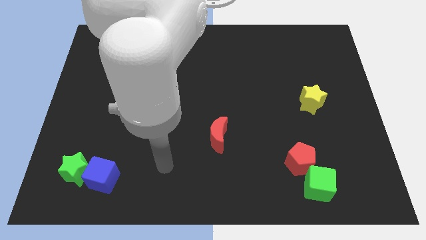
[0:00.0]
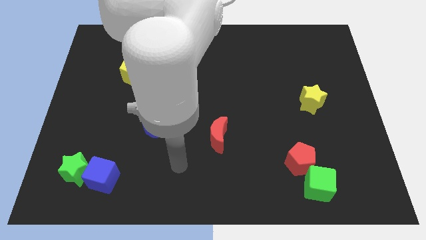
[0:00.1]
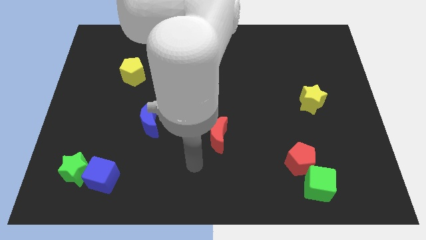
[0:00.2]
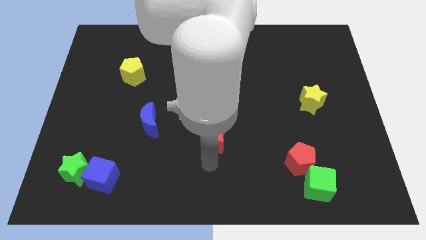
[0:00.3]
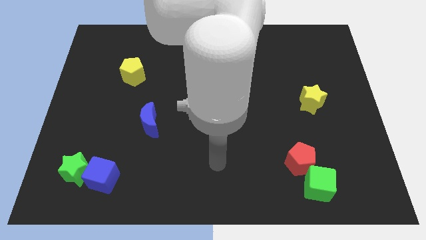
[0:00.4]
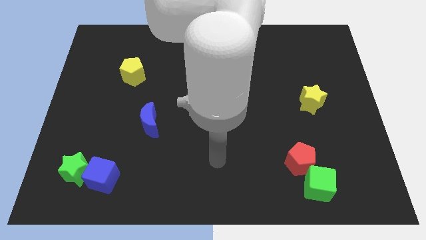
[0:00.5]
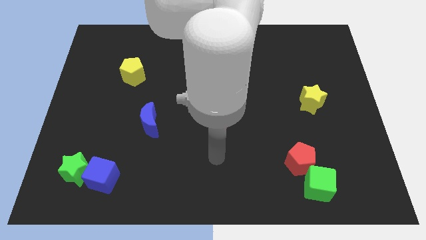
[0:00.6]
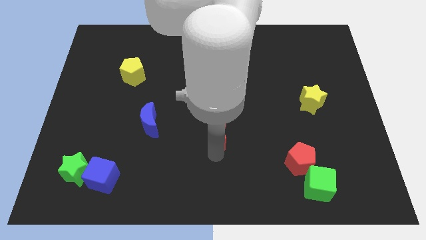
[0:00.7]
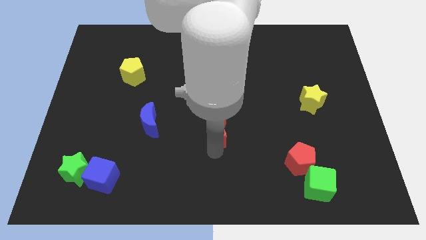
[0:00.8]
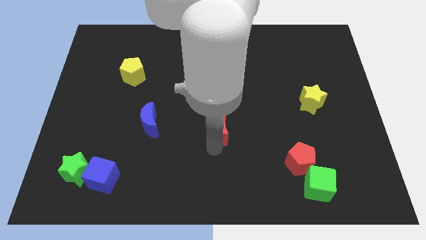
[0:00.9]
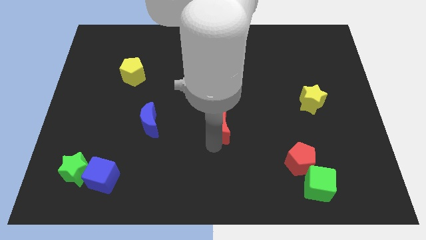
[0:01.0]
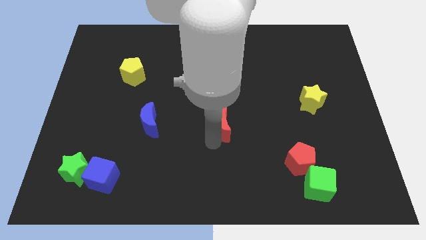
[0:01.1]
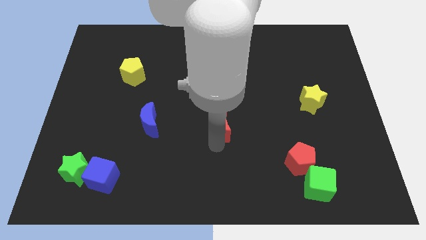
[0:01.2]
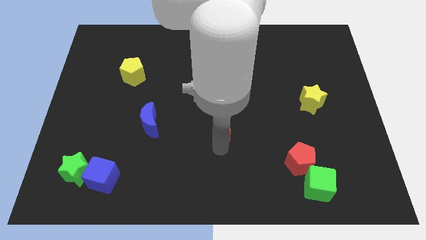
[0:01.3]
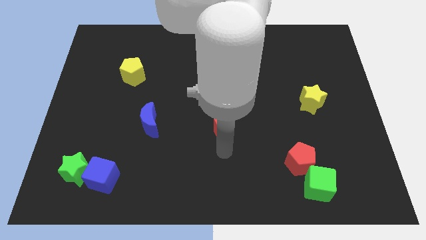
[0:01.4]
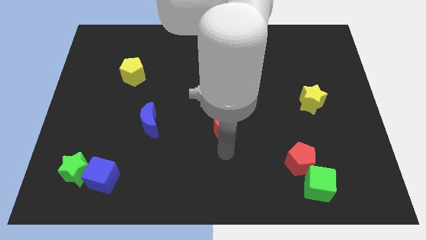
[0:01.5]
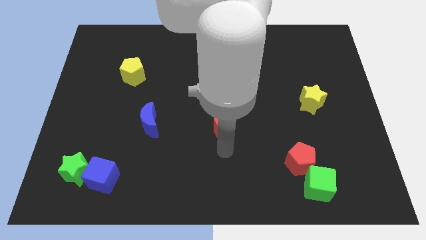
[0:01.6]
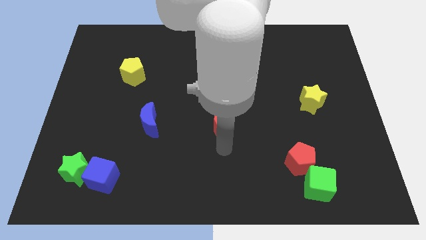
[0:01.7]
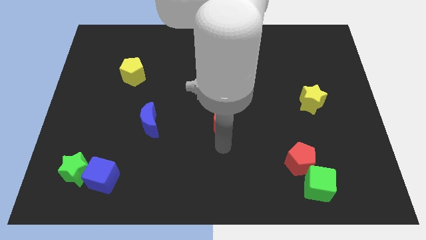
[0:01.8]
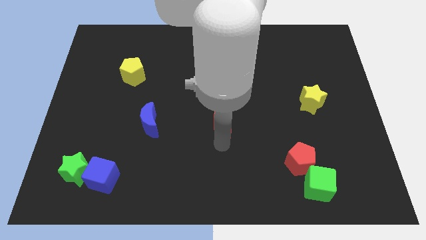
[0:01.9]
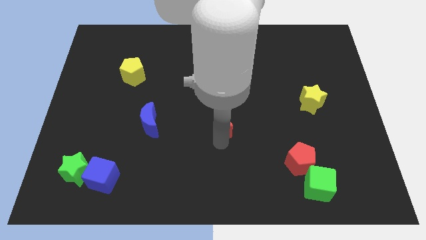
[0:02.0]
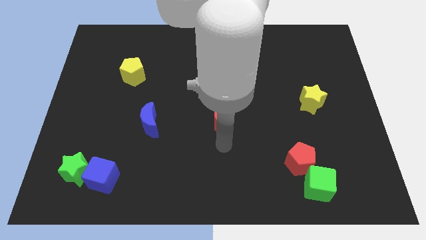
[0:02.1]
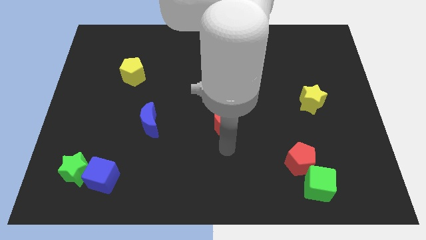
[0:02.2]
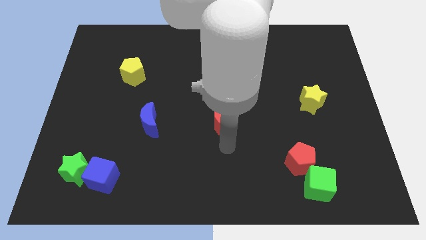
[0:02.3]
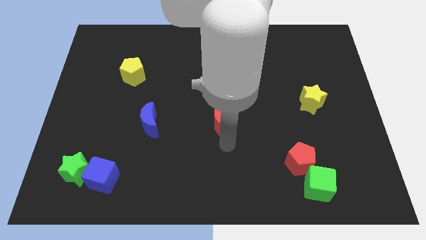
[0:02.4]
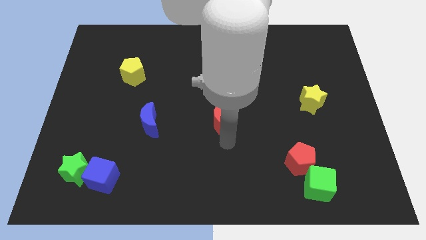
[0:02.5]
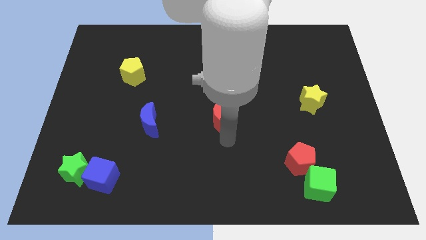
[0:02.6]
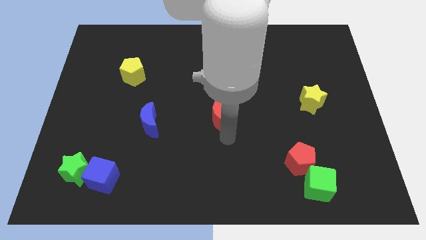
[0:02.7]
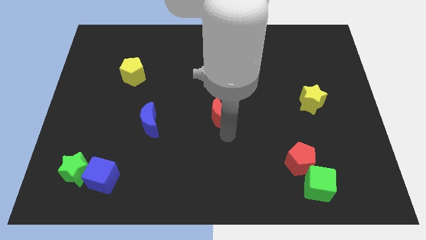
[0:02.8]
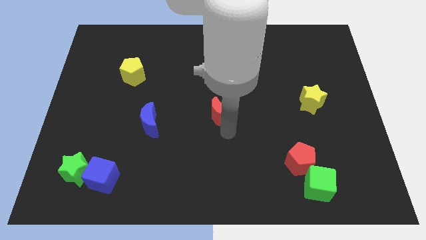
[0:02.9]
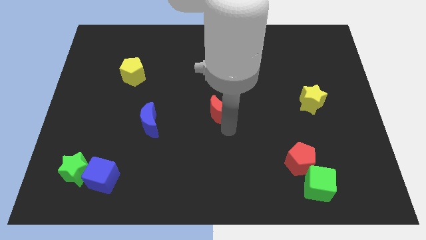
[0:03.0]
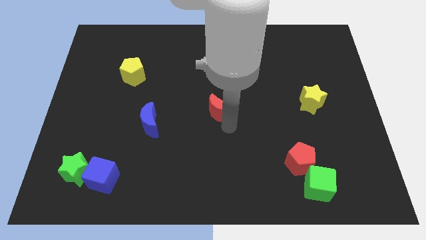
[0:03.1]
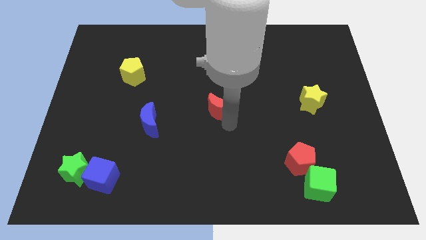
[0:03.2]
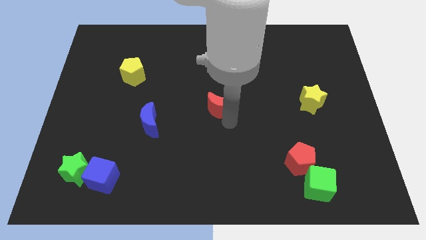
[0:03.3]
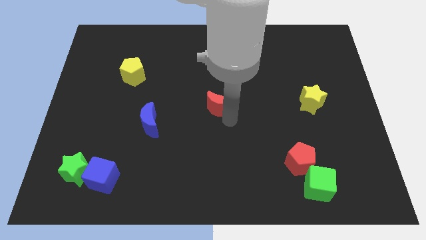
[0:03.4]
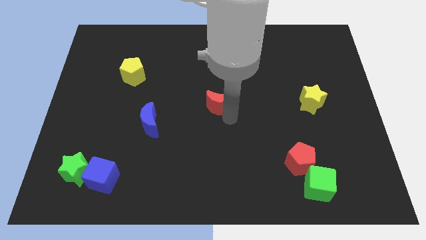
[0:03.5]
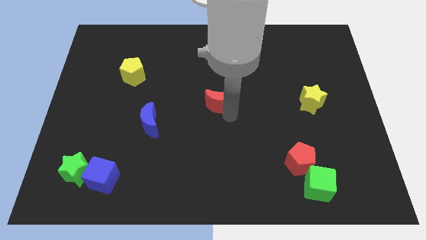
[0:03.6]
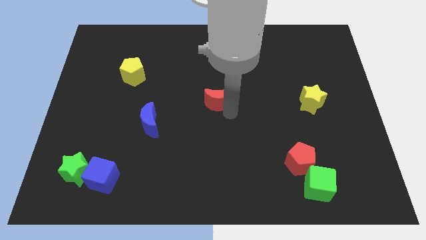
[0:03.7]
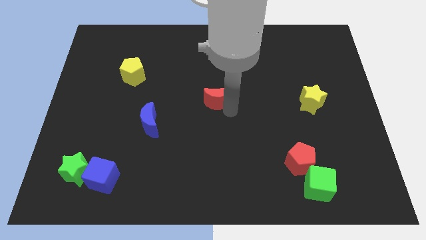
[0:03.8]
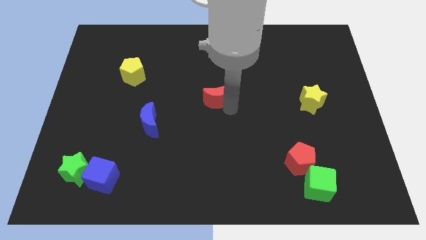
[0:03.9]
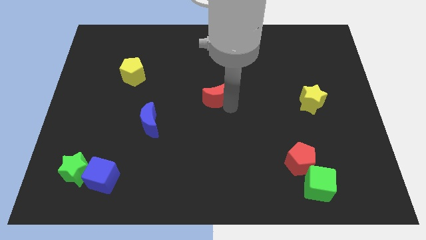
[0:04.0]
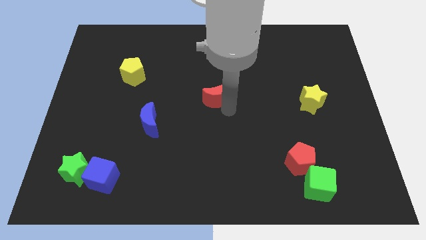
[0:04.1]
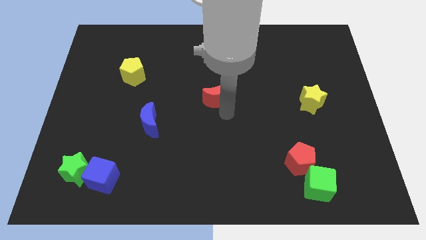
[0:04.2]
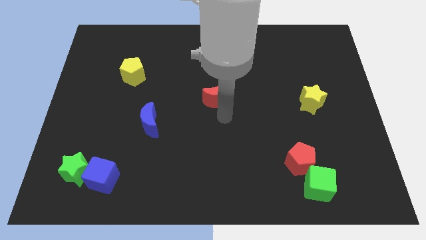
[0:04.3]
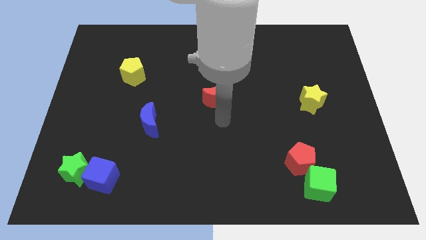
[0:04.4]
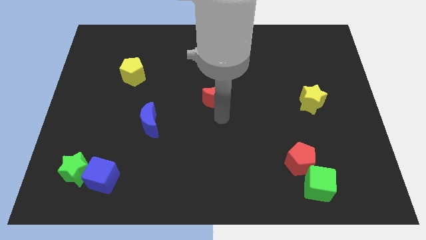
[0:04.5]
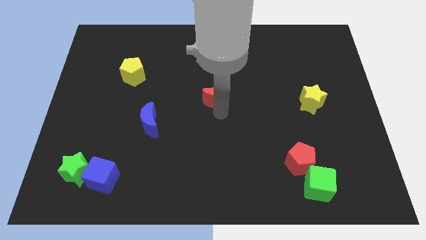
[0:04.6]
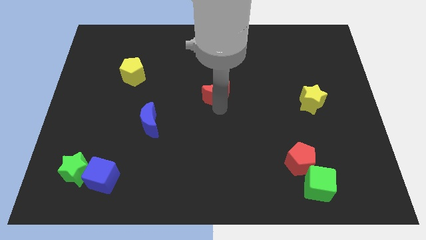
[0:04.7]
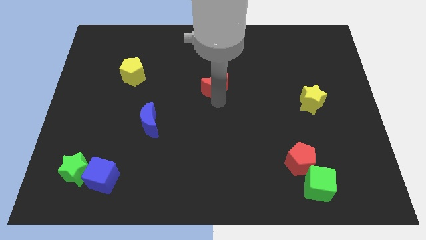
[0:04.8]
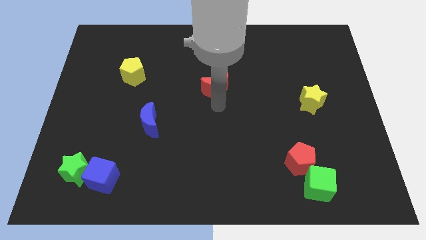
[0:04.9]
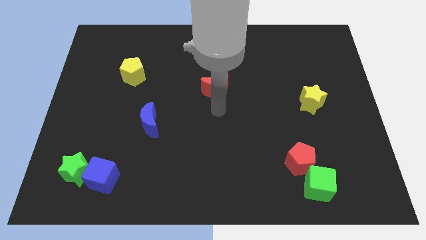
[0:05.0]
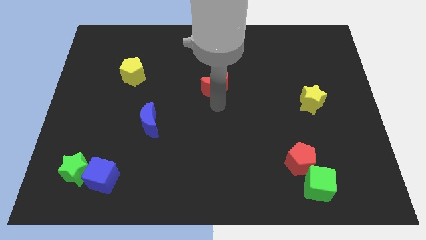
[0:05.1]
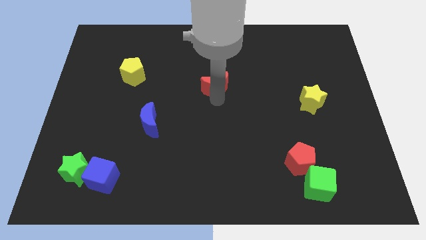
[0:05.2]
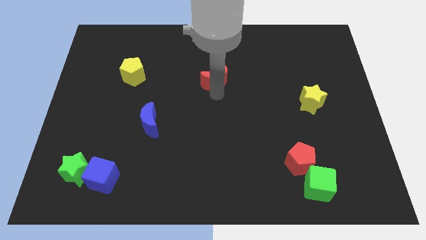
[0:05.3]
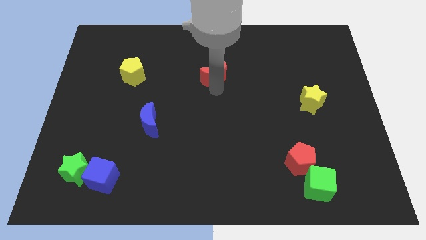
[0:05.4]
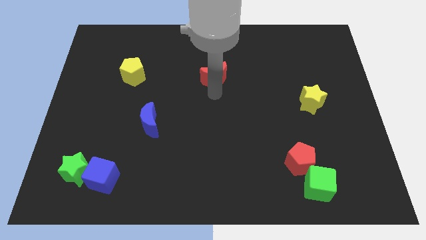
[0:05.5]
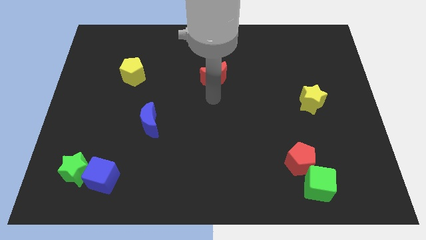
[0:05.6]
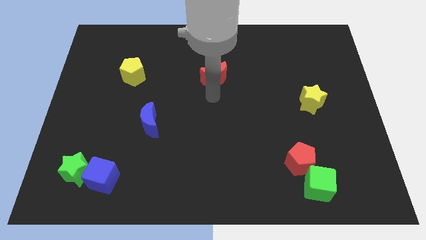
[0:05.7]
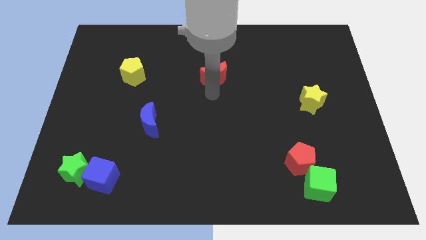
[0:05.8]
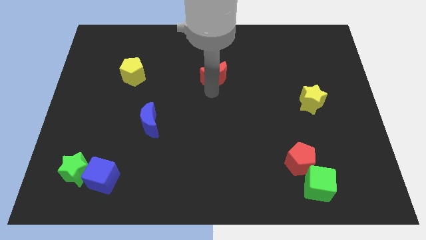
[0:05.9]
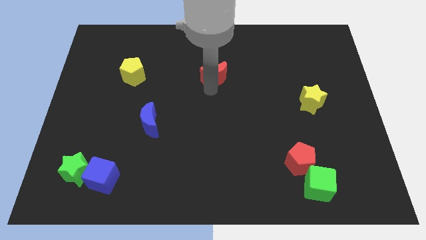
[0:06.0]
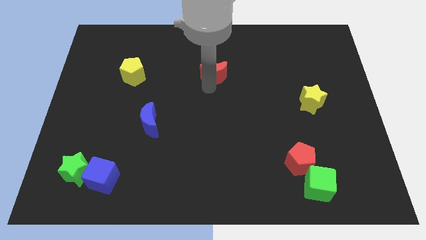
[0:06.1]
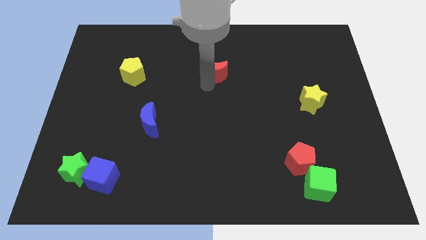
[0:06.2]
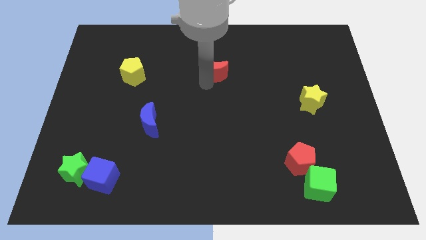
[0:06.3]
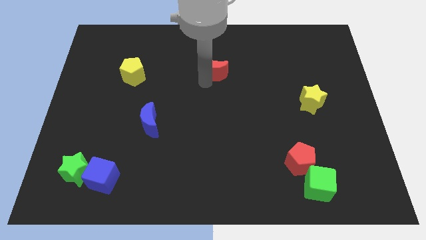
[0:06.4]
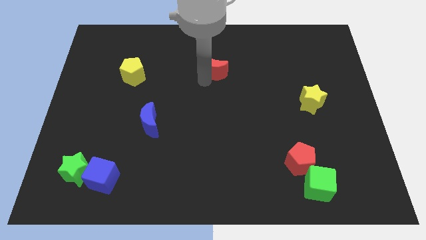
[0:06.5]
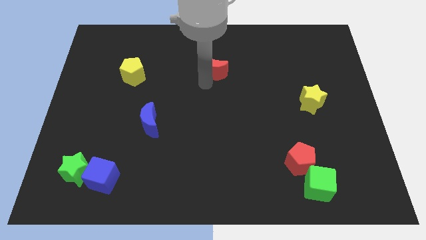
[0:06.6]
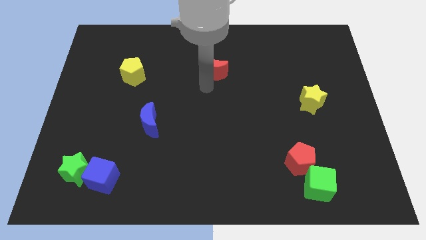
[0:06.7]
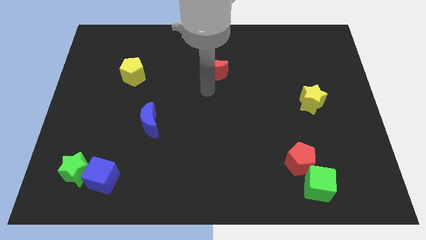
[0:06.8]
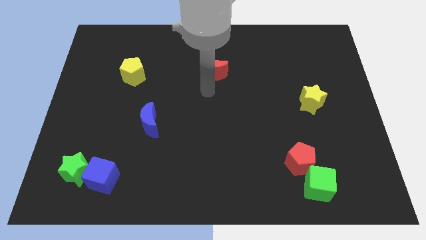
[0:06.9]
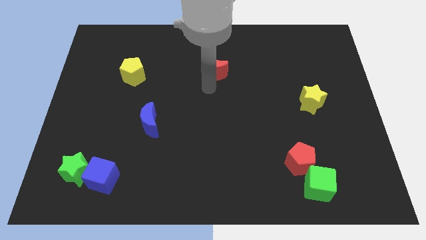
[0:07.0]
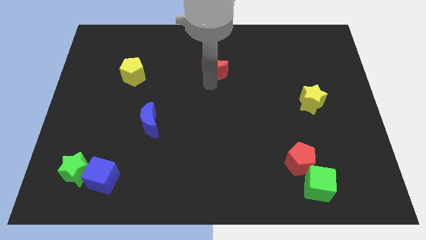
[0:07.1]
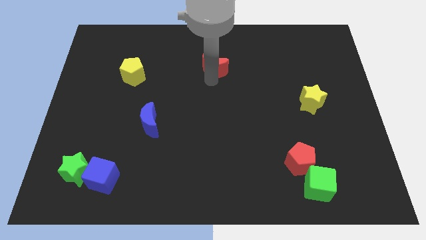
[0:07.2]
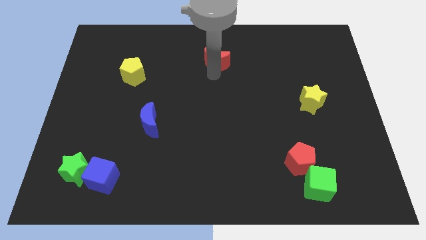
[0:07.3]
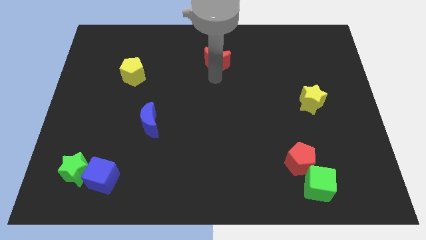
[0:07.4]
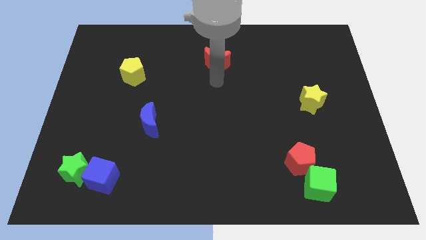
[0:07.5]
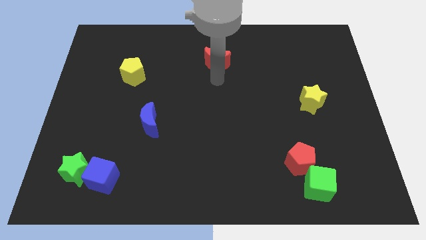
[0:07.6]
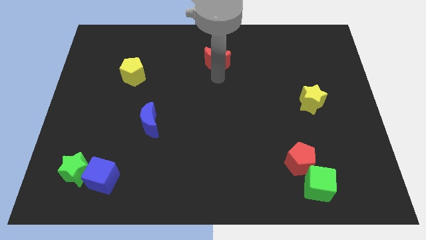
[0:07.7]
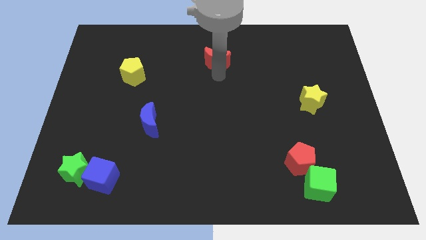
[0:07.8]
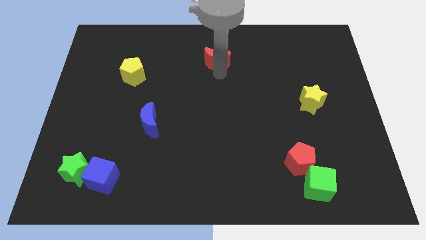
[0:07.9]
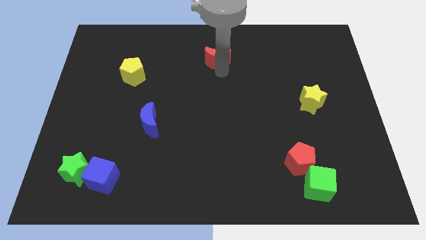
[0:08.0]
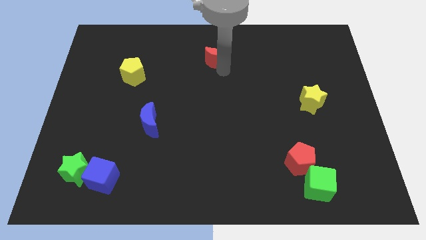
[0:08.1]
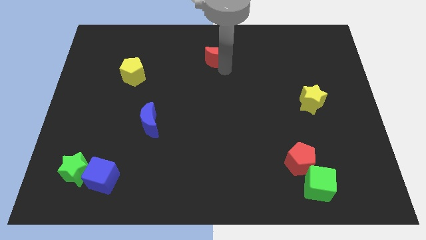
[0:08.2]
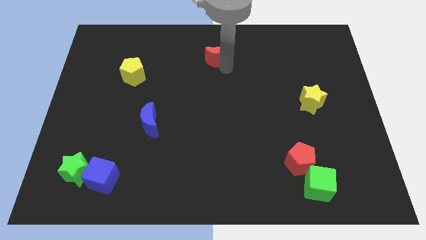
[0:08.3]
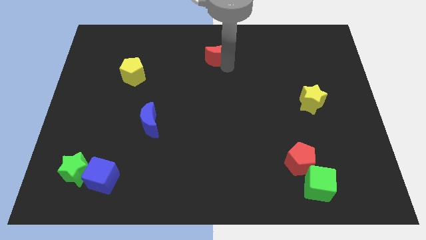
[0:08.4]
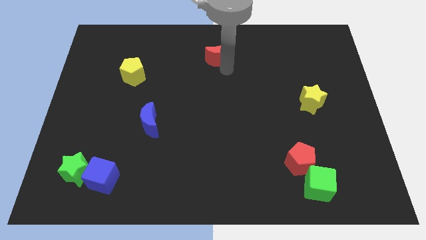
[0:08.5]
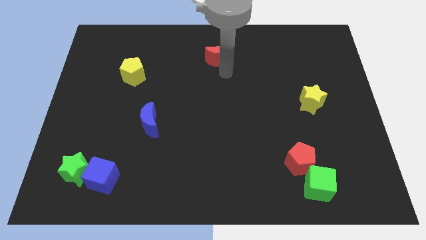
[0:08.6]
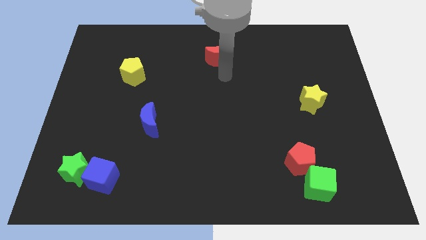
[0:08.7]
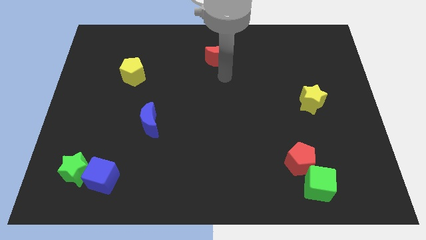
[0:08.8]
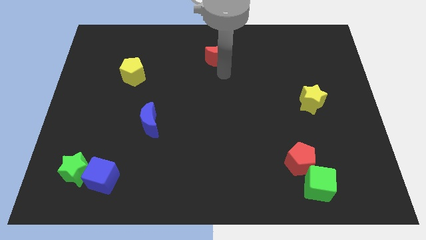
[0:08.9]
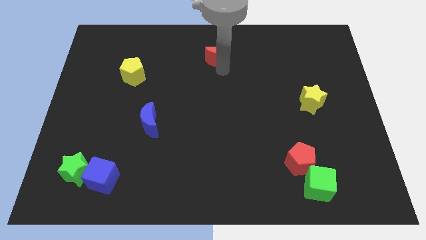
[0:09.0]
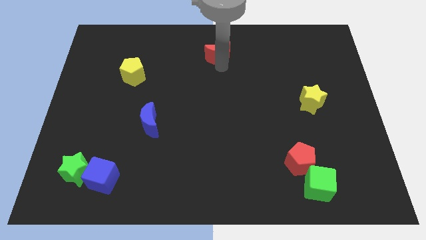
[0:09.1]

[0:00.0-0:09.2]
push the red moon to the towards your base
